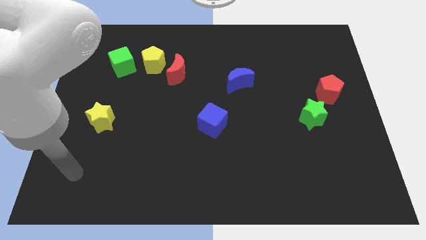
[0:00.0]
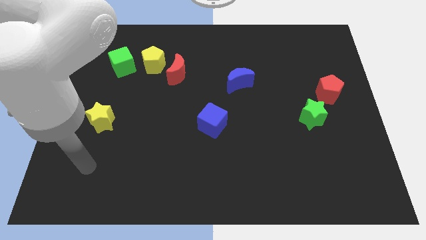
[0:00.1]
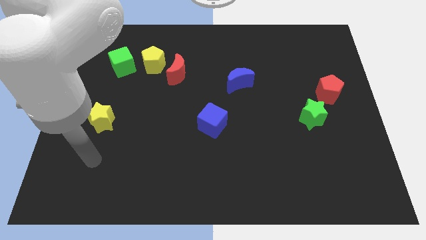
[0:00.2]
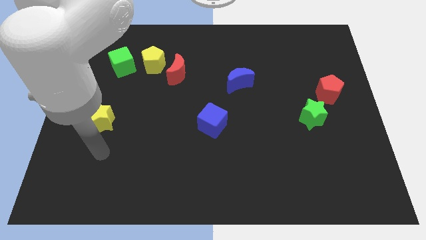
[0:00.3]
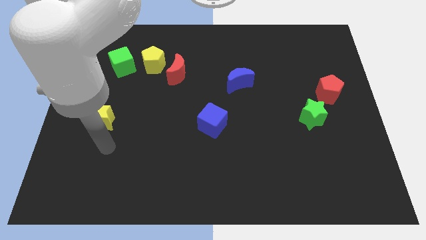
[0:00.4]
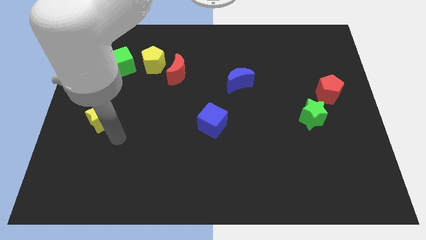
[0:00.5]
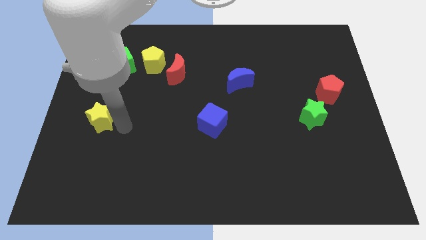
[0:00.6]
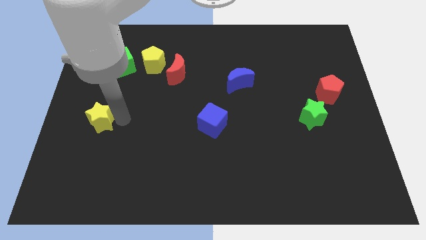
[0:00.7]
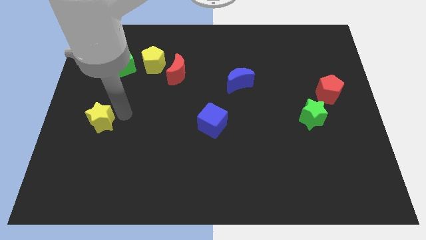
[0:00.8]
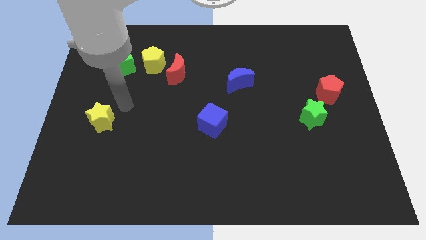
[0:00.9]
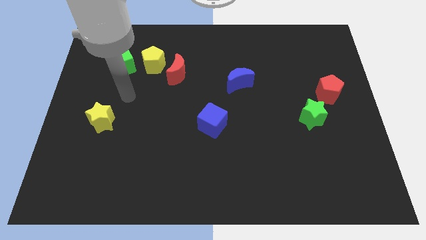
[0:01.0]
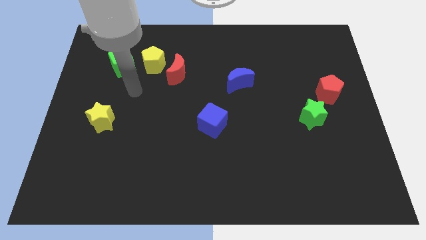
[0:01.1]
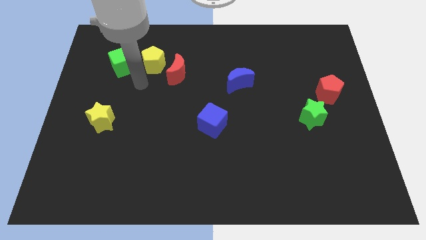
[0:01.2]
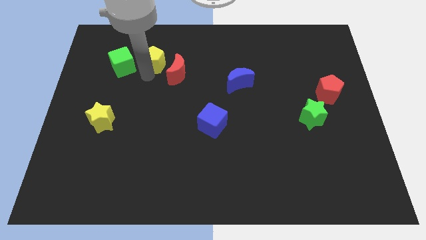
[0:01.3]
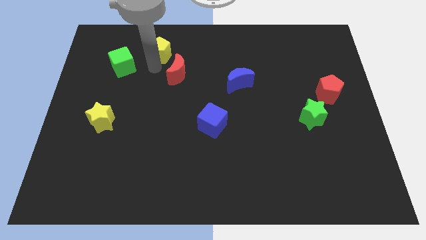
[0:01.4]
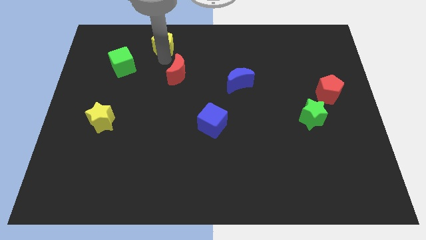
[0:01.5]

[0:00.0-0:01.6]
move the red moon away from the yellow pentagon

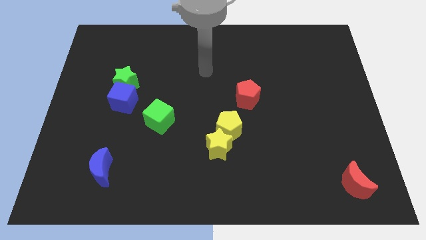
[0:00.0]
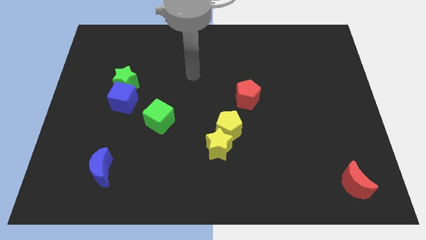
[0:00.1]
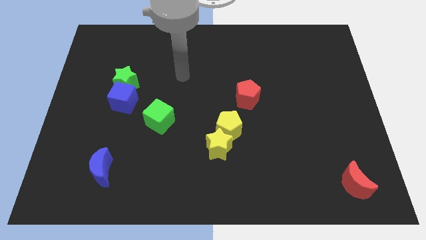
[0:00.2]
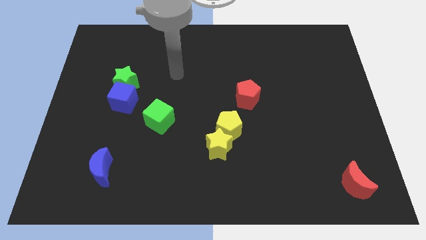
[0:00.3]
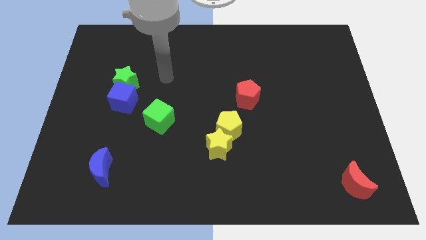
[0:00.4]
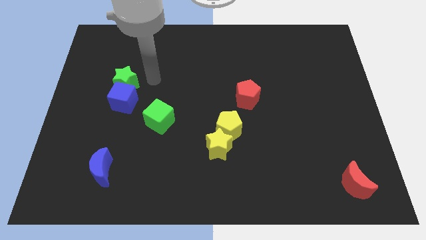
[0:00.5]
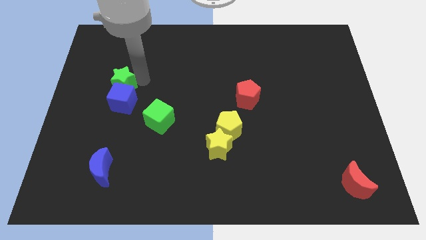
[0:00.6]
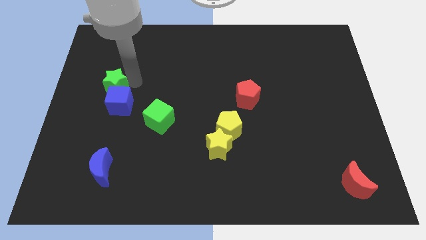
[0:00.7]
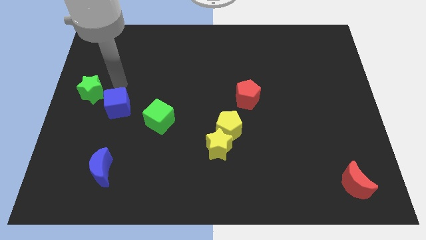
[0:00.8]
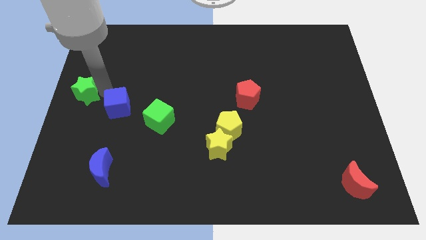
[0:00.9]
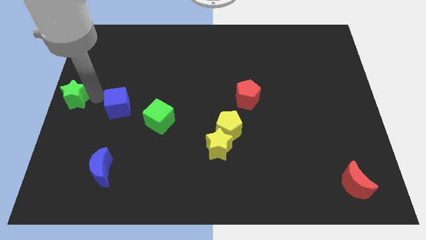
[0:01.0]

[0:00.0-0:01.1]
separate the blue cube from the green star

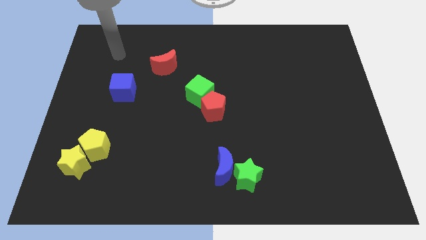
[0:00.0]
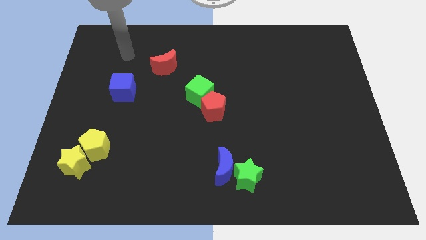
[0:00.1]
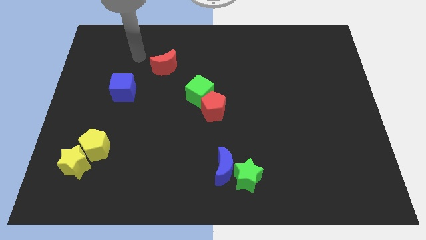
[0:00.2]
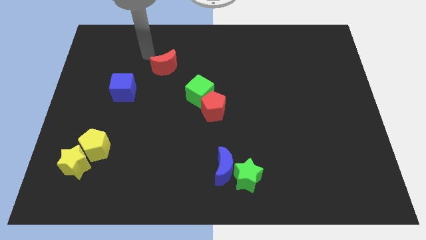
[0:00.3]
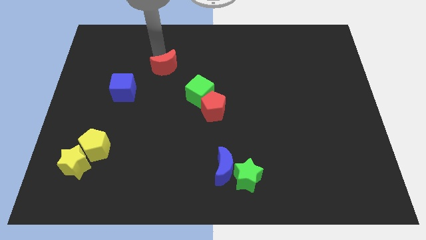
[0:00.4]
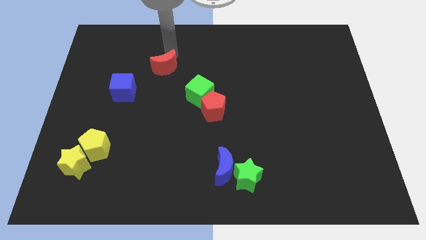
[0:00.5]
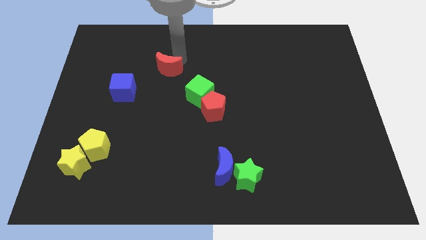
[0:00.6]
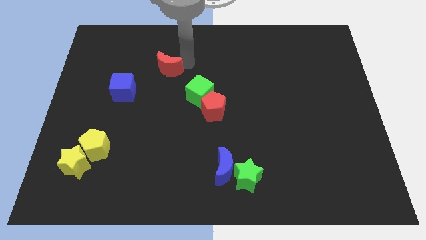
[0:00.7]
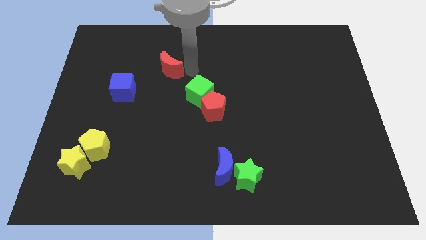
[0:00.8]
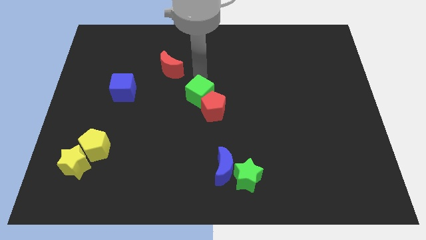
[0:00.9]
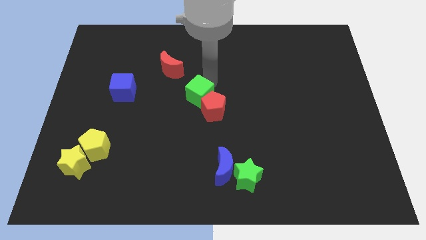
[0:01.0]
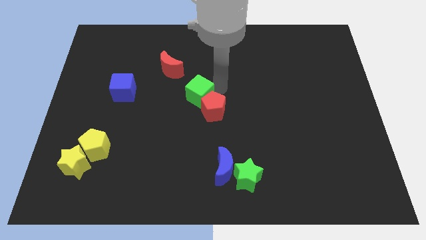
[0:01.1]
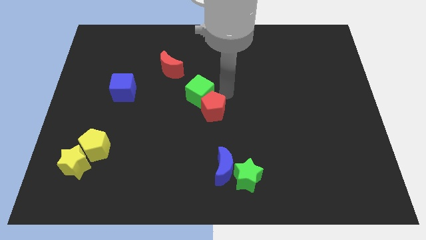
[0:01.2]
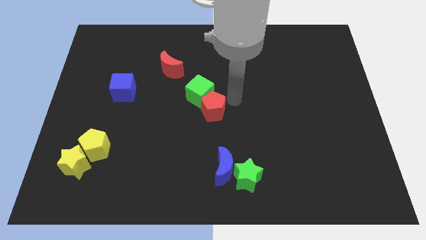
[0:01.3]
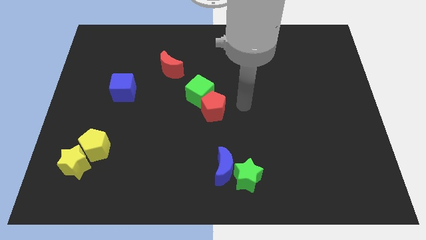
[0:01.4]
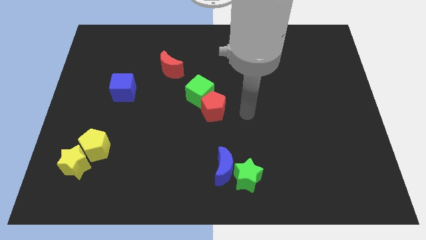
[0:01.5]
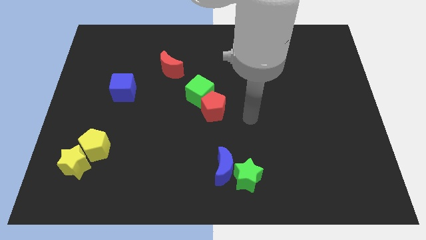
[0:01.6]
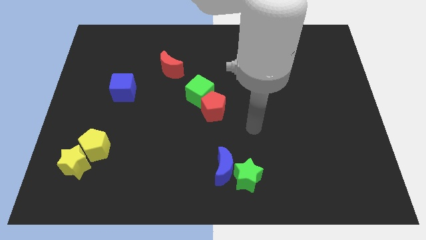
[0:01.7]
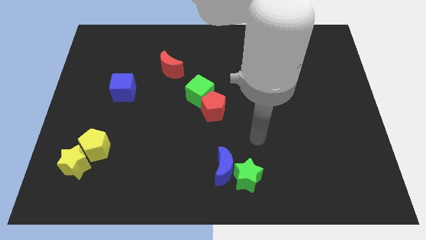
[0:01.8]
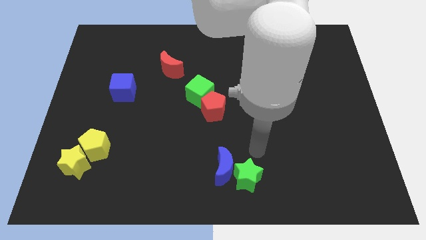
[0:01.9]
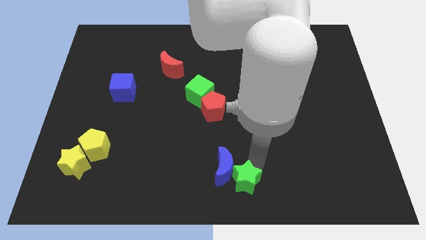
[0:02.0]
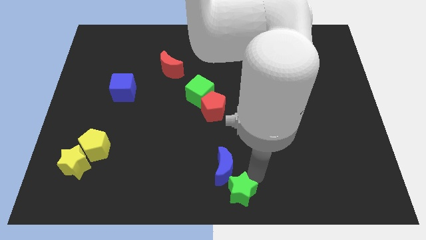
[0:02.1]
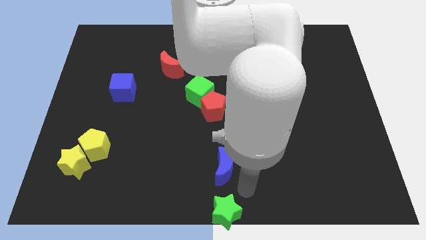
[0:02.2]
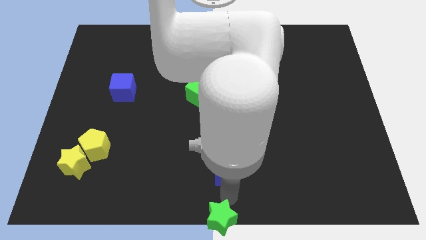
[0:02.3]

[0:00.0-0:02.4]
separate the blue moon from the green star

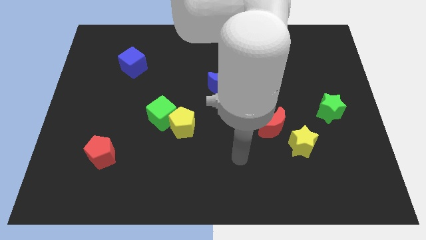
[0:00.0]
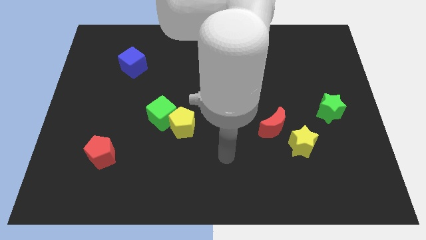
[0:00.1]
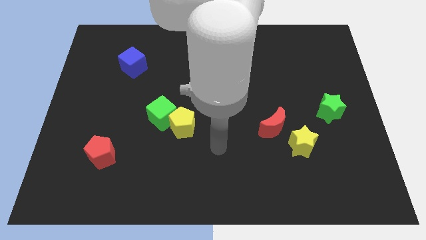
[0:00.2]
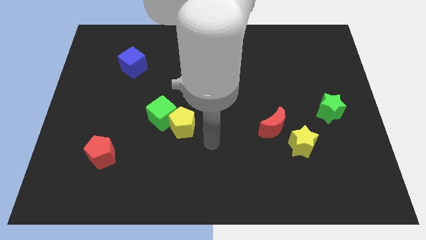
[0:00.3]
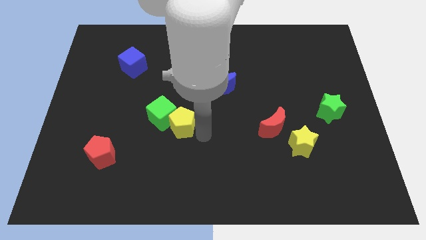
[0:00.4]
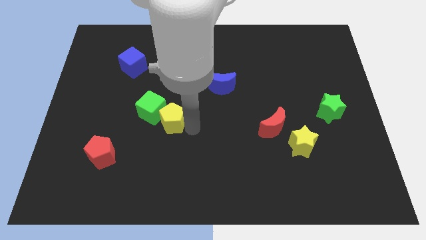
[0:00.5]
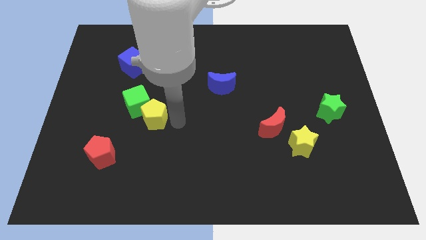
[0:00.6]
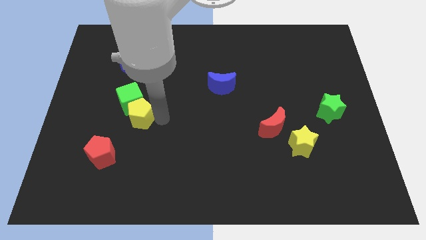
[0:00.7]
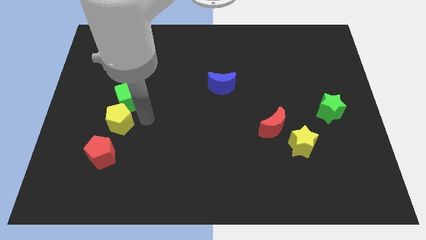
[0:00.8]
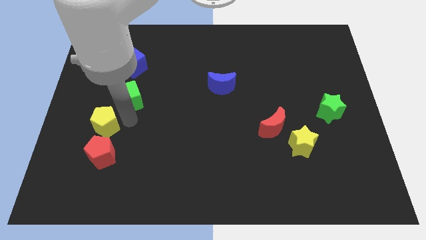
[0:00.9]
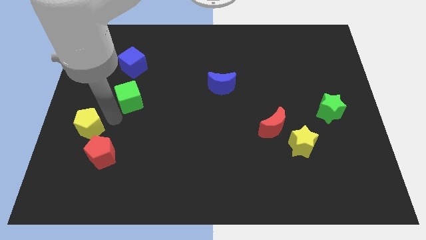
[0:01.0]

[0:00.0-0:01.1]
separate the green cube from the yellow pentagon

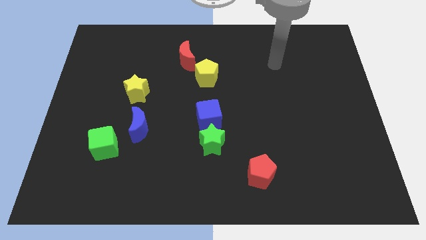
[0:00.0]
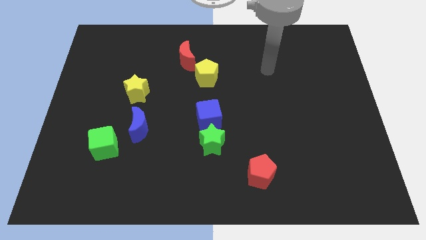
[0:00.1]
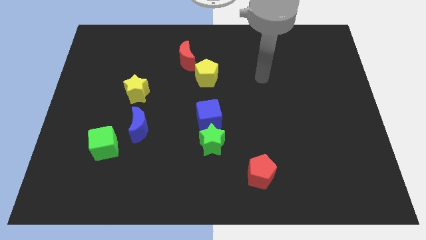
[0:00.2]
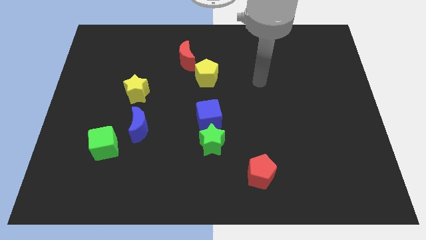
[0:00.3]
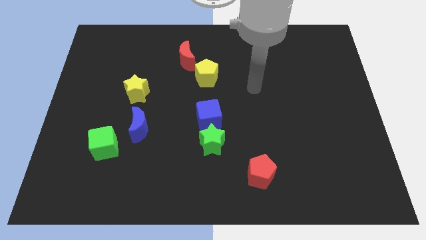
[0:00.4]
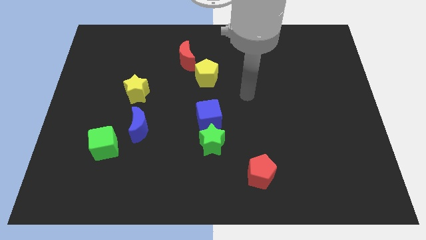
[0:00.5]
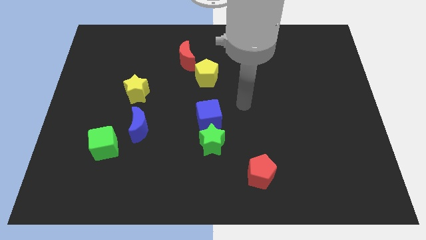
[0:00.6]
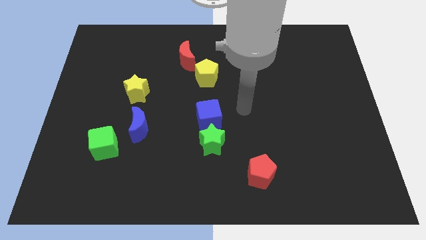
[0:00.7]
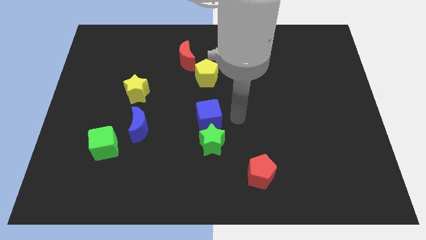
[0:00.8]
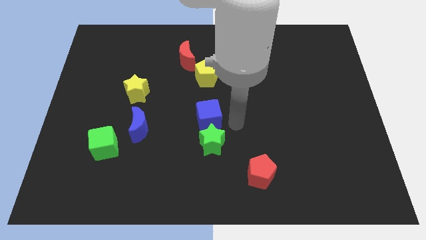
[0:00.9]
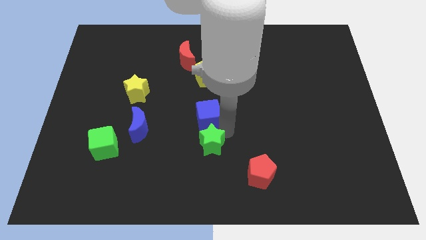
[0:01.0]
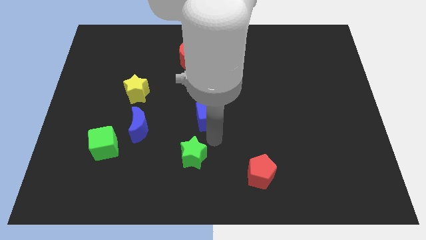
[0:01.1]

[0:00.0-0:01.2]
move the blue cube away from the green star

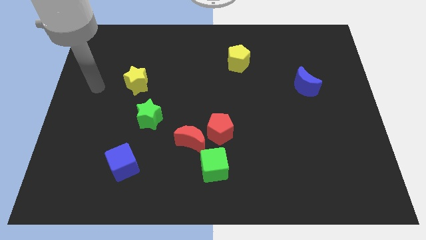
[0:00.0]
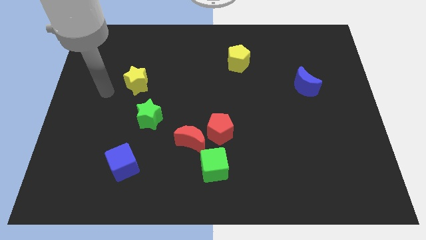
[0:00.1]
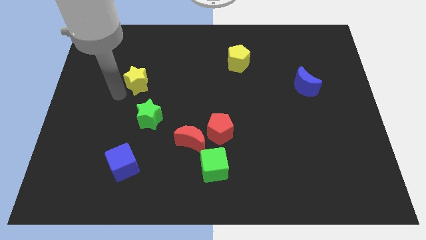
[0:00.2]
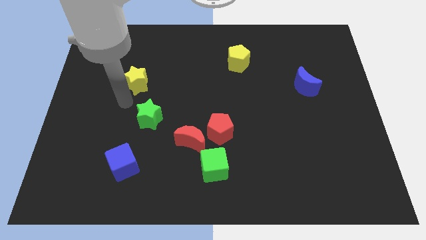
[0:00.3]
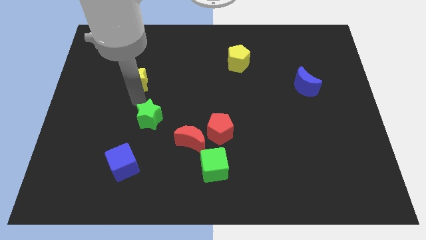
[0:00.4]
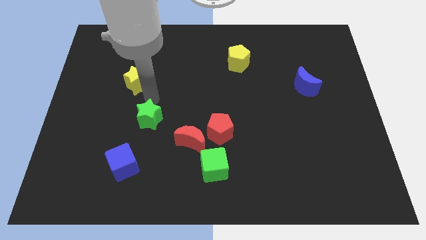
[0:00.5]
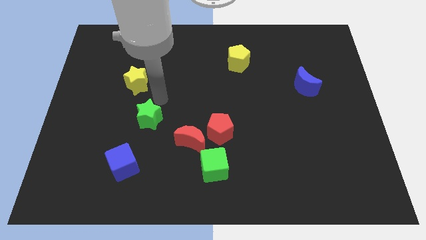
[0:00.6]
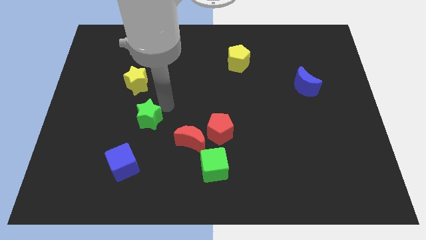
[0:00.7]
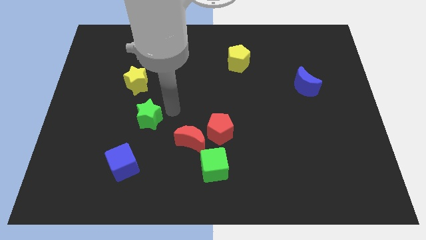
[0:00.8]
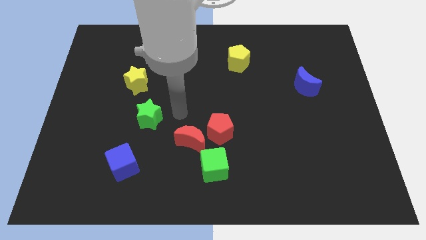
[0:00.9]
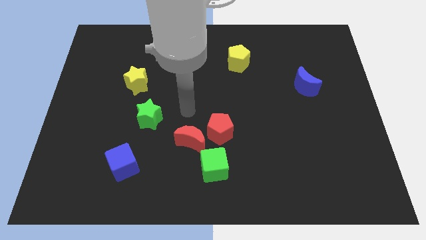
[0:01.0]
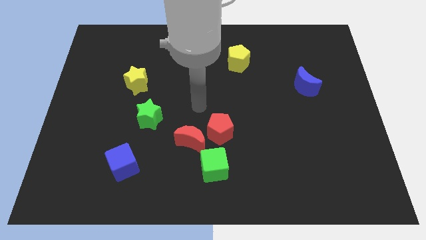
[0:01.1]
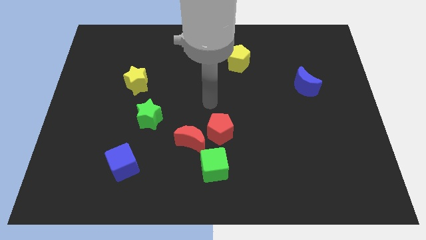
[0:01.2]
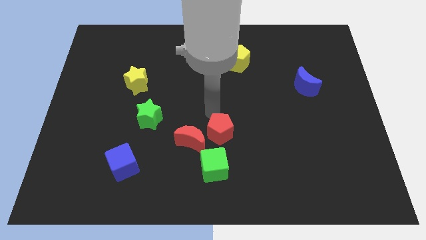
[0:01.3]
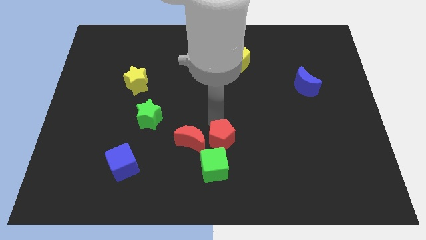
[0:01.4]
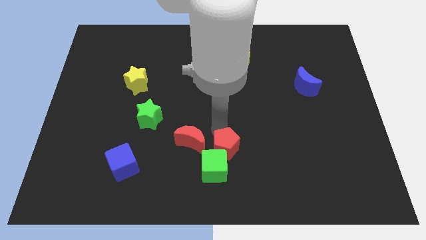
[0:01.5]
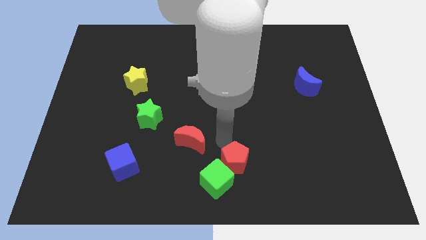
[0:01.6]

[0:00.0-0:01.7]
pull the red moon apart from the red pentagon and green cube

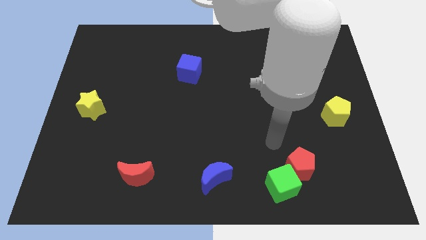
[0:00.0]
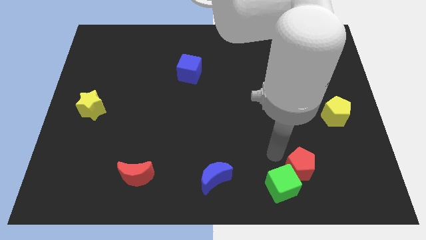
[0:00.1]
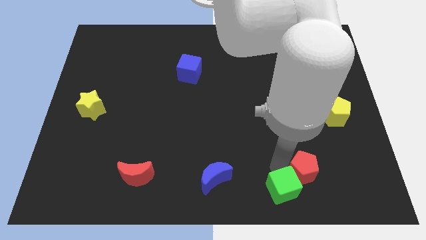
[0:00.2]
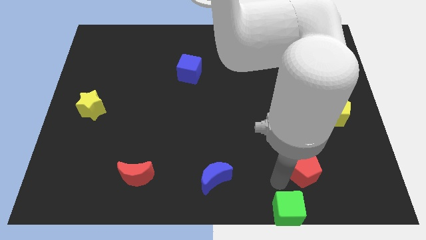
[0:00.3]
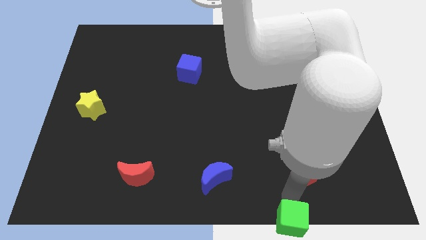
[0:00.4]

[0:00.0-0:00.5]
separate the red pentagon from the green cube
